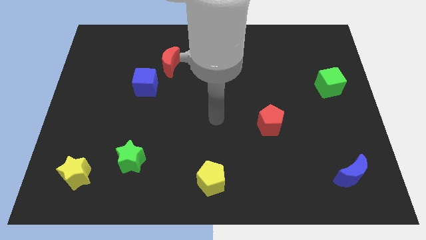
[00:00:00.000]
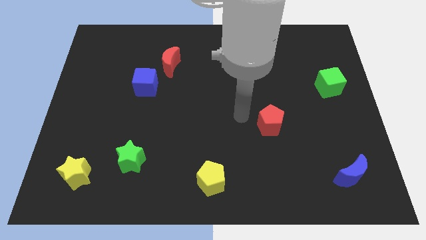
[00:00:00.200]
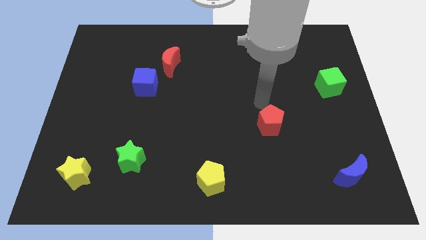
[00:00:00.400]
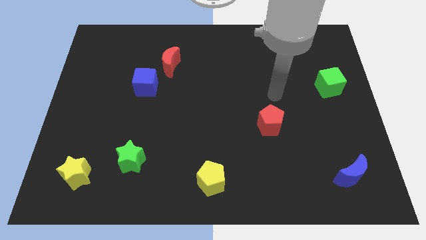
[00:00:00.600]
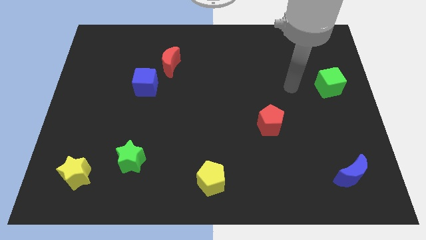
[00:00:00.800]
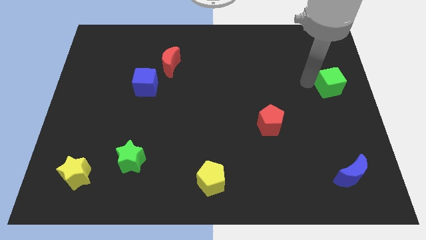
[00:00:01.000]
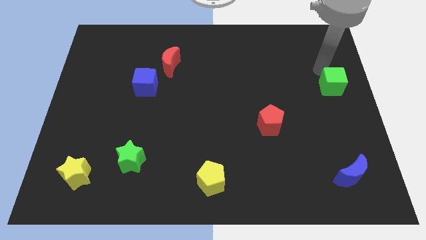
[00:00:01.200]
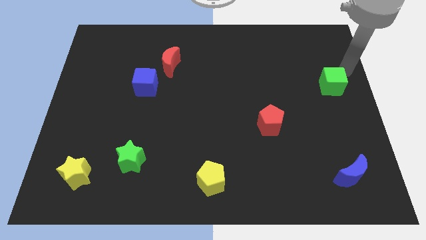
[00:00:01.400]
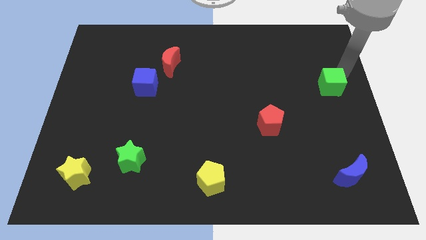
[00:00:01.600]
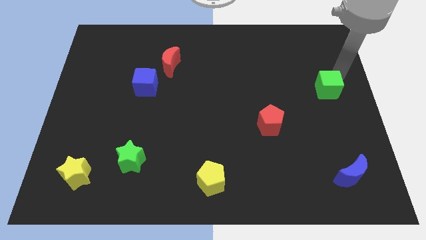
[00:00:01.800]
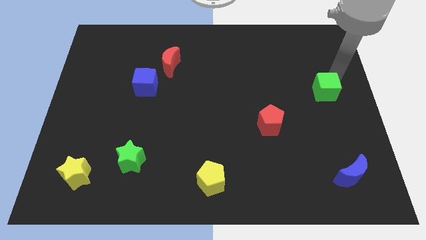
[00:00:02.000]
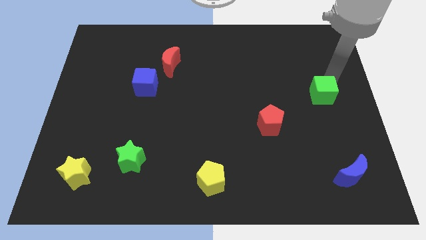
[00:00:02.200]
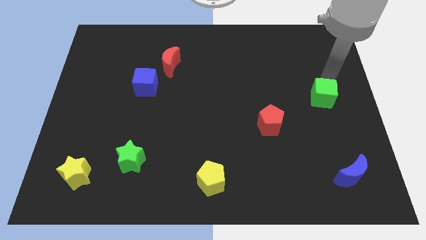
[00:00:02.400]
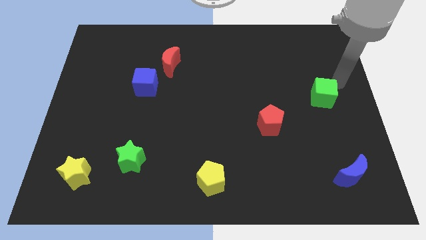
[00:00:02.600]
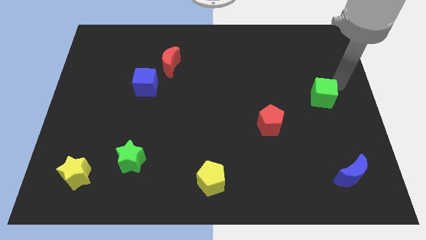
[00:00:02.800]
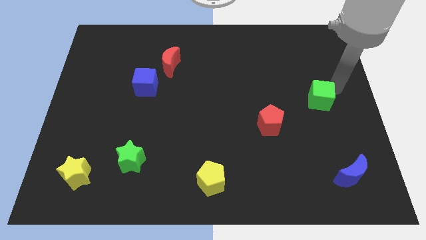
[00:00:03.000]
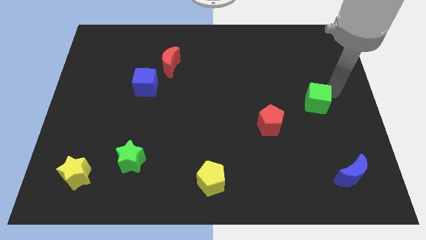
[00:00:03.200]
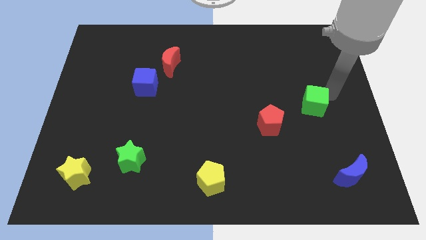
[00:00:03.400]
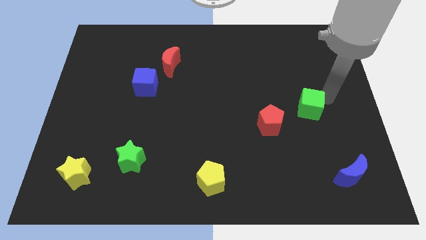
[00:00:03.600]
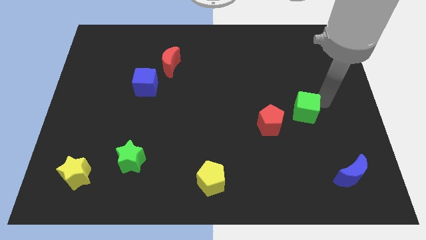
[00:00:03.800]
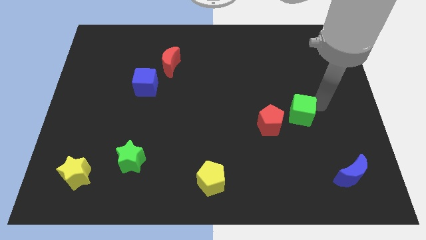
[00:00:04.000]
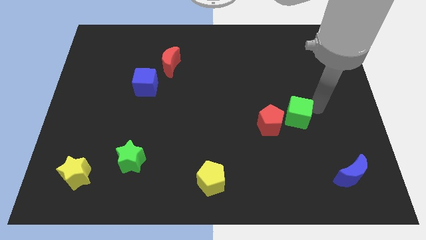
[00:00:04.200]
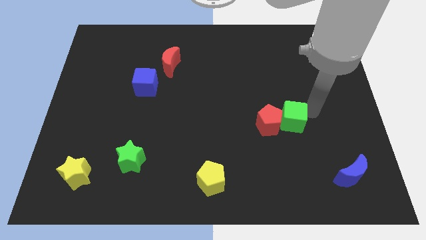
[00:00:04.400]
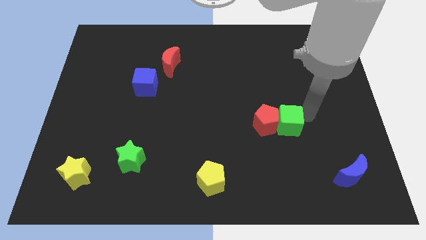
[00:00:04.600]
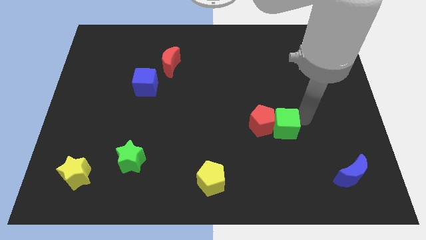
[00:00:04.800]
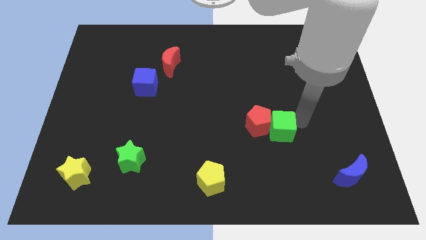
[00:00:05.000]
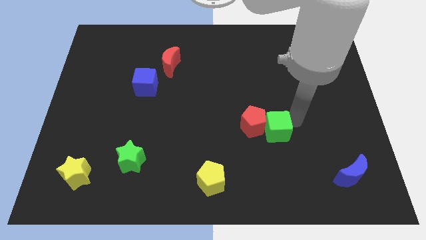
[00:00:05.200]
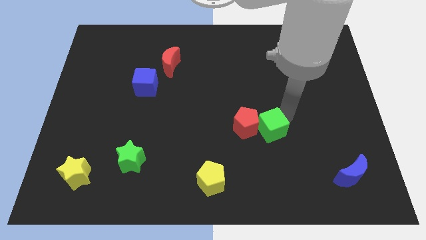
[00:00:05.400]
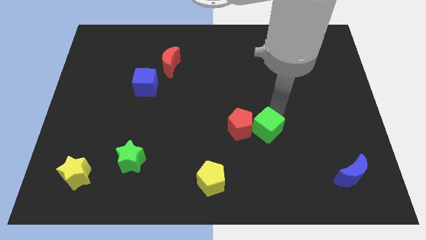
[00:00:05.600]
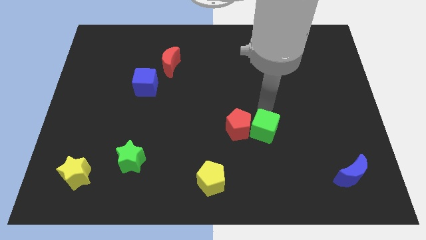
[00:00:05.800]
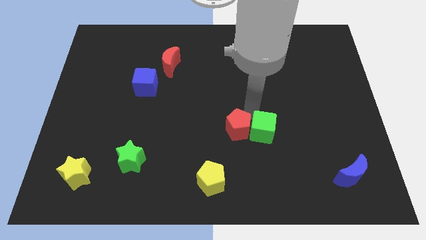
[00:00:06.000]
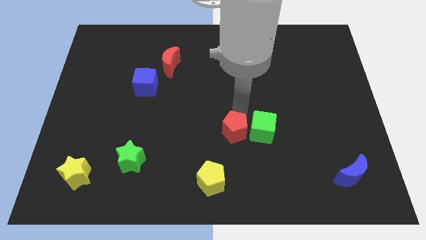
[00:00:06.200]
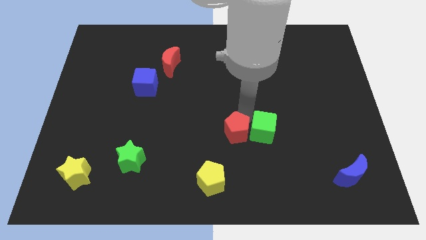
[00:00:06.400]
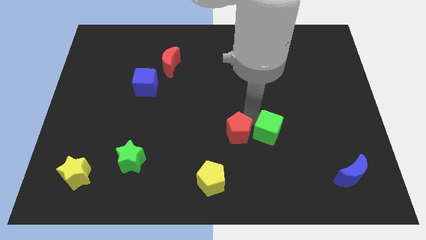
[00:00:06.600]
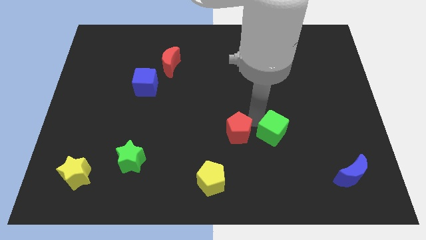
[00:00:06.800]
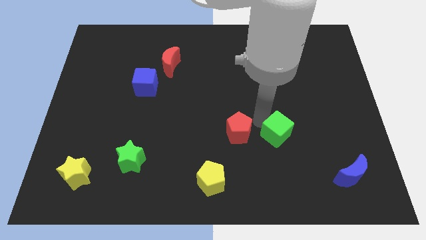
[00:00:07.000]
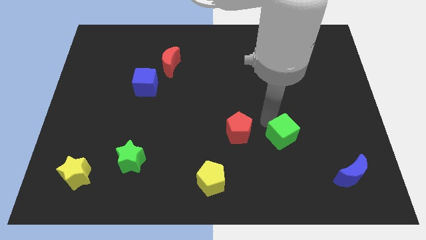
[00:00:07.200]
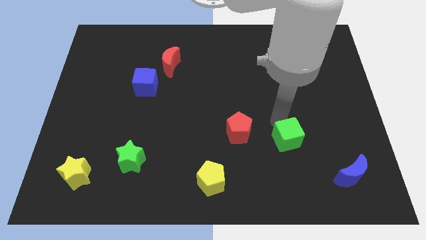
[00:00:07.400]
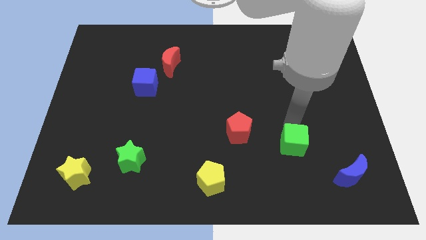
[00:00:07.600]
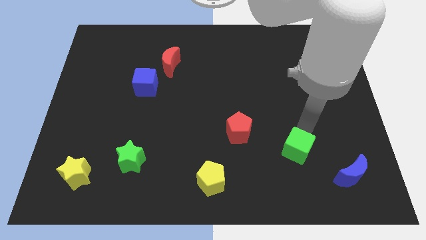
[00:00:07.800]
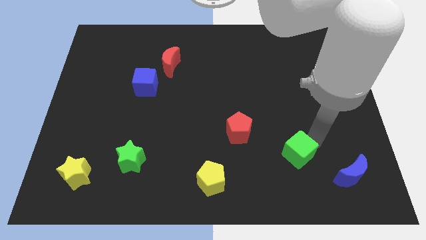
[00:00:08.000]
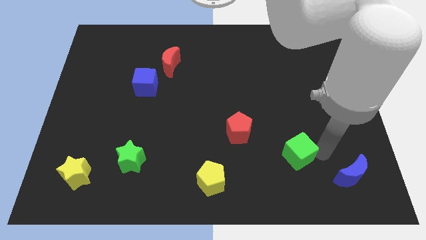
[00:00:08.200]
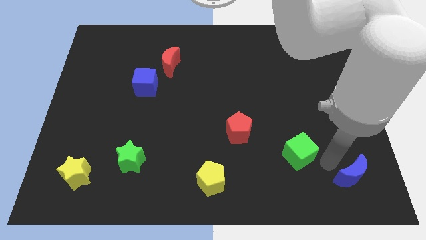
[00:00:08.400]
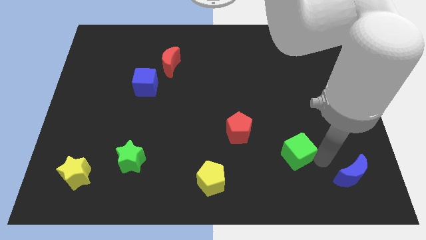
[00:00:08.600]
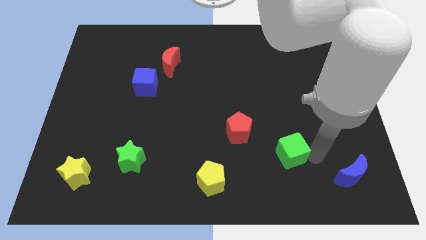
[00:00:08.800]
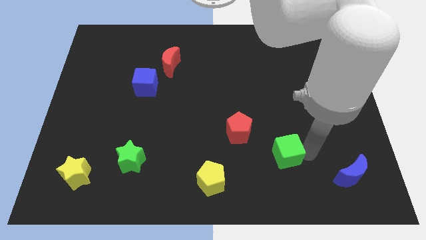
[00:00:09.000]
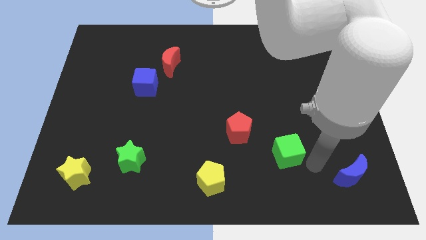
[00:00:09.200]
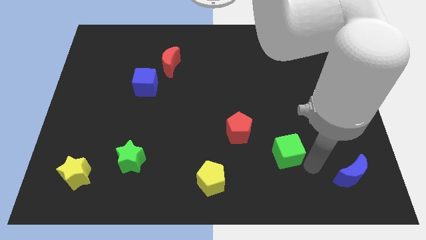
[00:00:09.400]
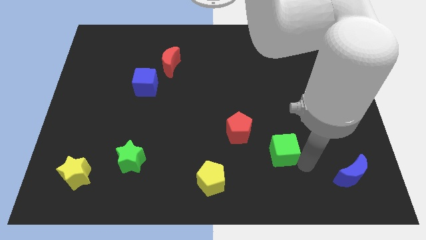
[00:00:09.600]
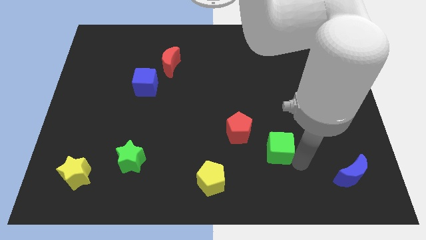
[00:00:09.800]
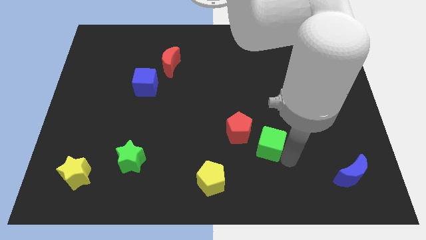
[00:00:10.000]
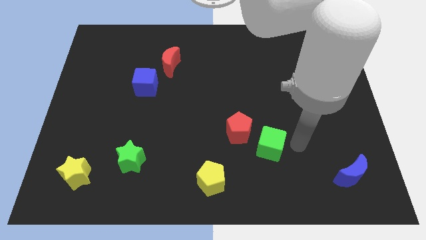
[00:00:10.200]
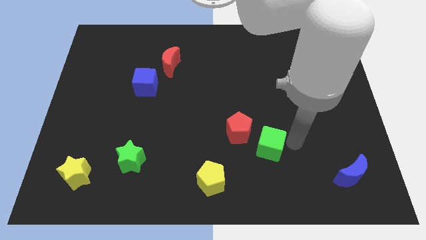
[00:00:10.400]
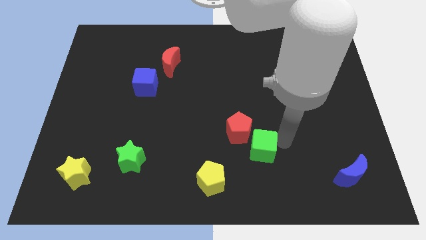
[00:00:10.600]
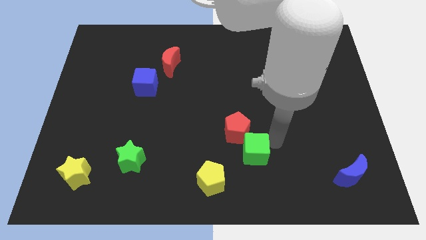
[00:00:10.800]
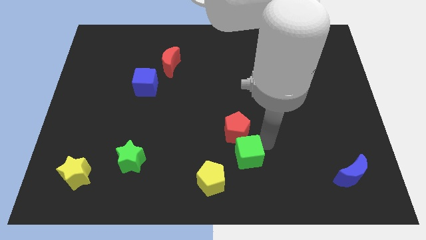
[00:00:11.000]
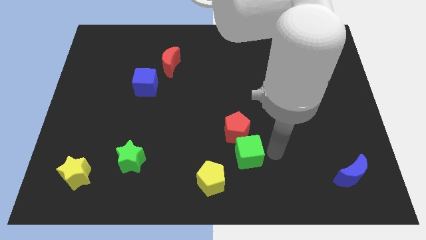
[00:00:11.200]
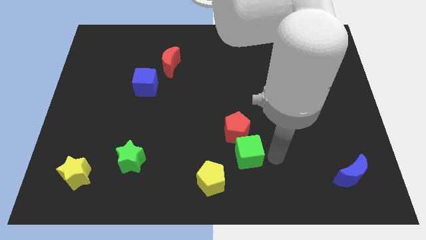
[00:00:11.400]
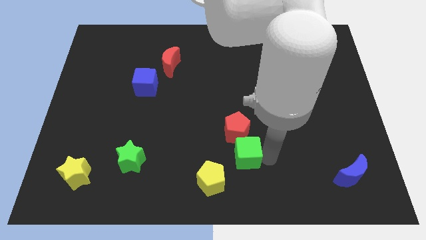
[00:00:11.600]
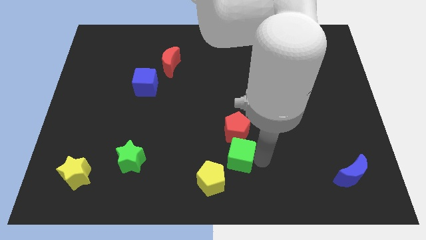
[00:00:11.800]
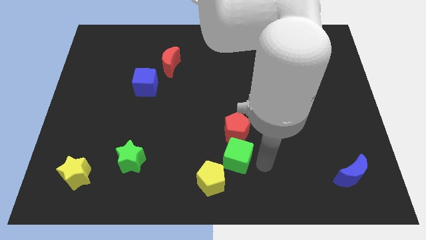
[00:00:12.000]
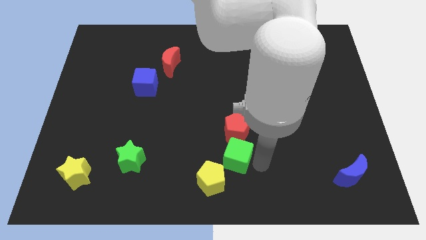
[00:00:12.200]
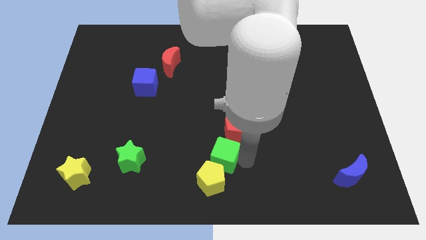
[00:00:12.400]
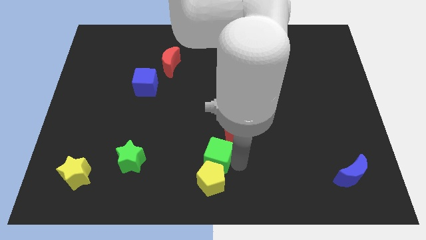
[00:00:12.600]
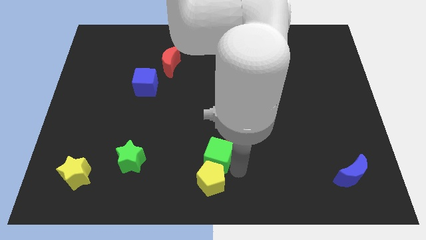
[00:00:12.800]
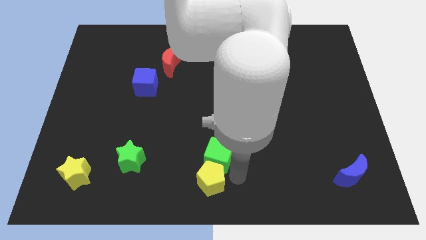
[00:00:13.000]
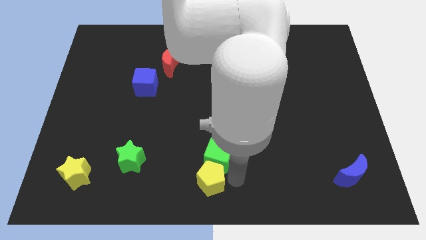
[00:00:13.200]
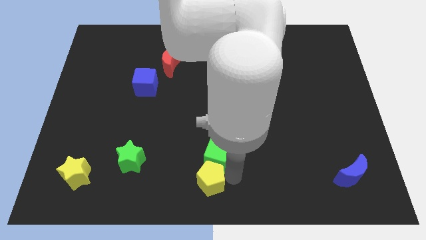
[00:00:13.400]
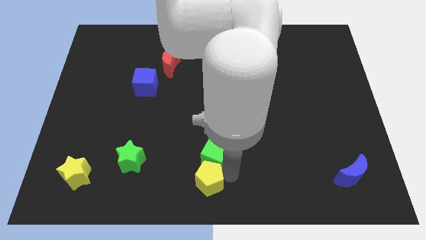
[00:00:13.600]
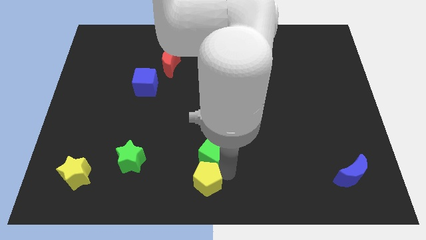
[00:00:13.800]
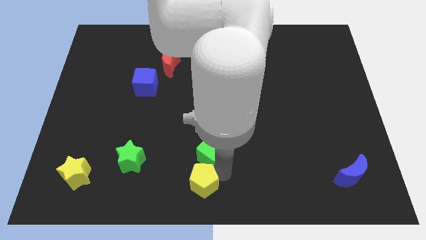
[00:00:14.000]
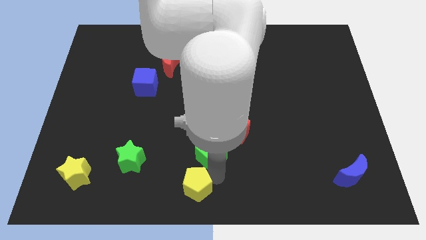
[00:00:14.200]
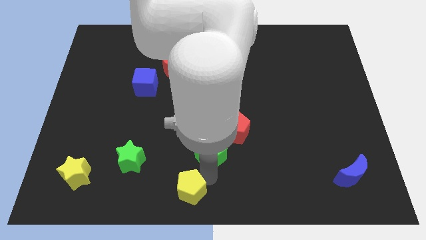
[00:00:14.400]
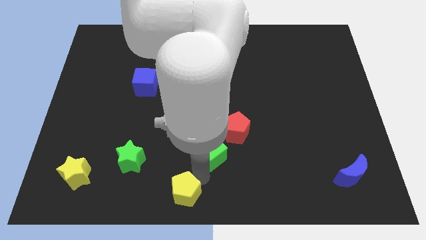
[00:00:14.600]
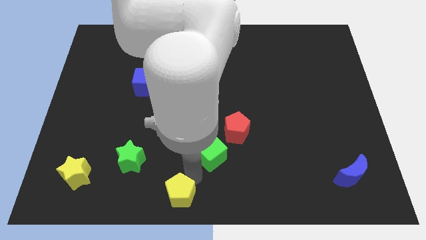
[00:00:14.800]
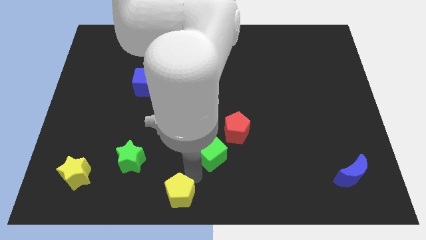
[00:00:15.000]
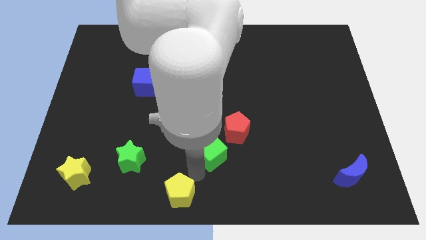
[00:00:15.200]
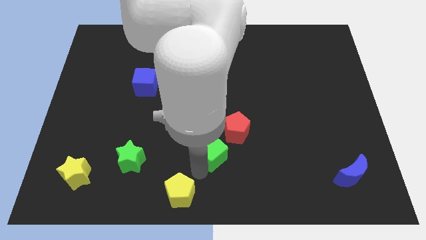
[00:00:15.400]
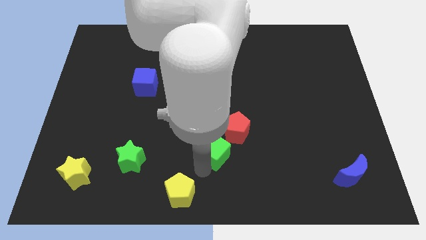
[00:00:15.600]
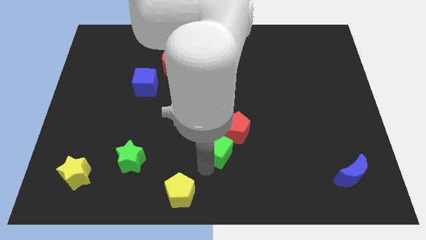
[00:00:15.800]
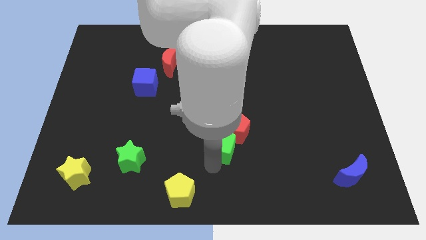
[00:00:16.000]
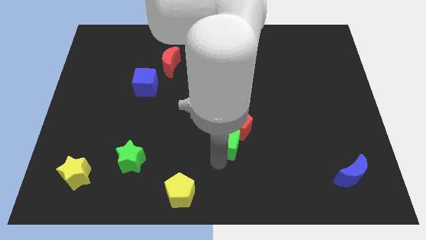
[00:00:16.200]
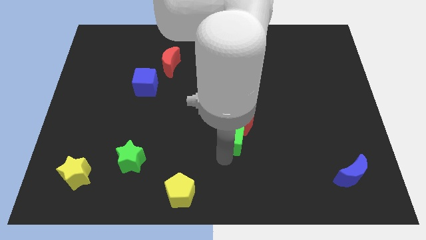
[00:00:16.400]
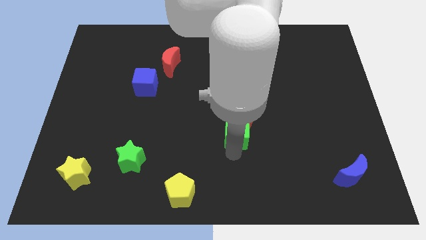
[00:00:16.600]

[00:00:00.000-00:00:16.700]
slide the green cube to the bottom left side of the red pentagon
